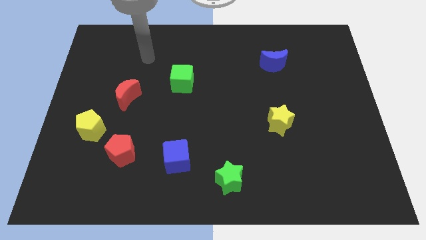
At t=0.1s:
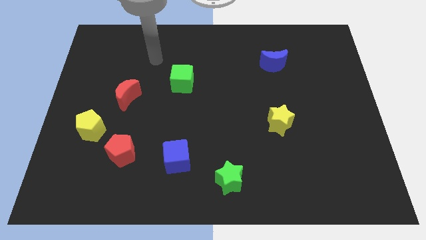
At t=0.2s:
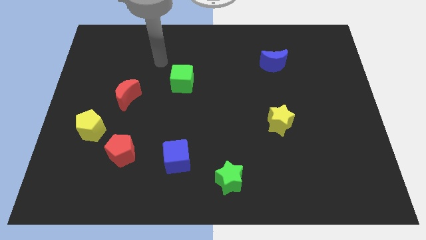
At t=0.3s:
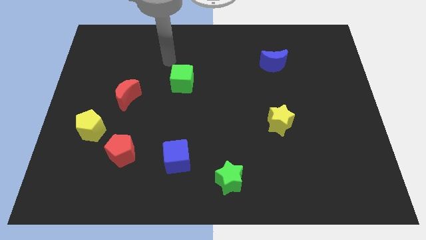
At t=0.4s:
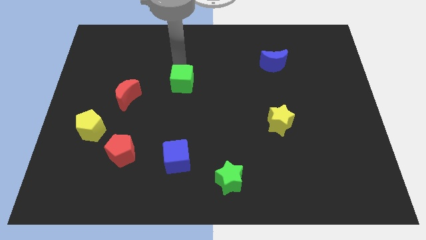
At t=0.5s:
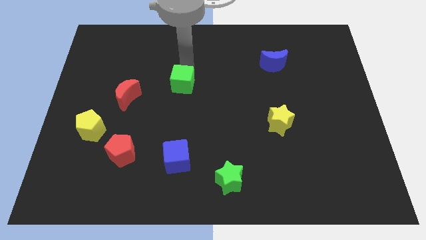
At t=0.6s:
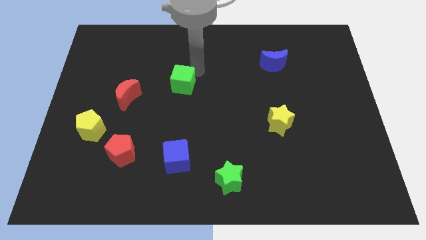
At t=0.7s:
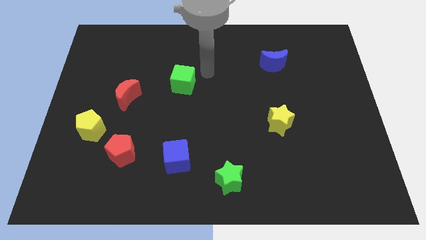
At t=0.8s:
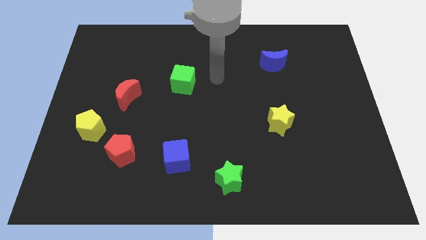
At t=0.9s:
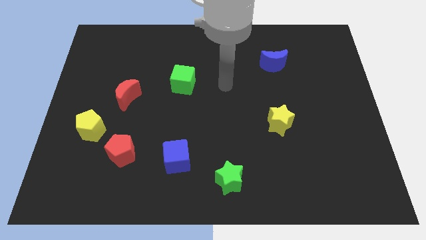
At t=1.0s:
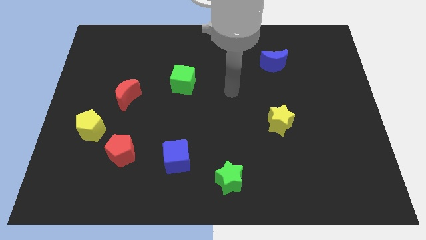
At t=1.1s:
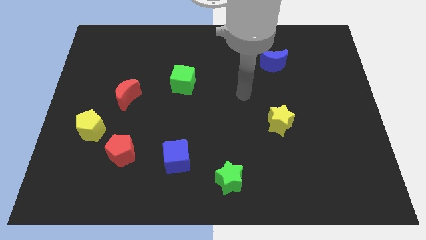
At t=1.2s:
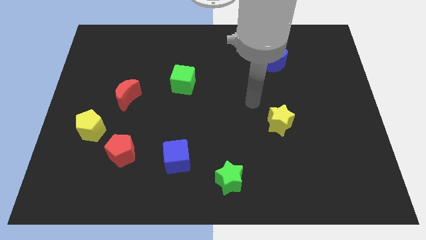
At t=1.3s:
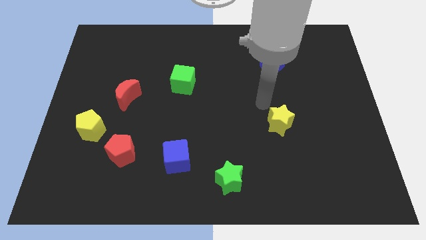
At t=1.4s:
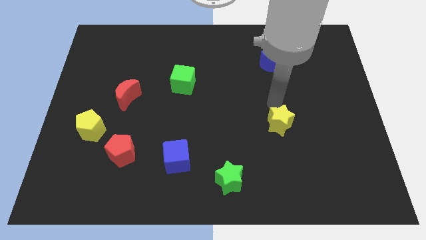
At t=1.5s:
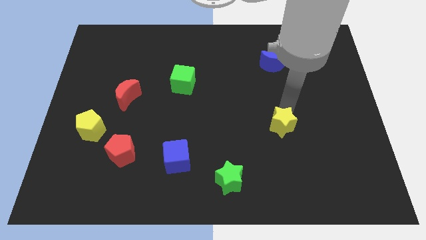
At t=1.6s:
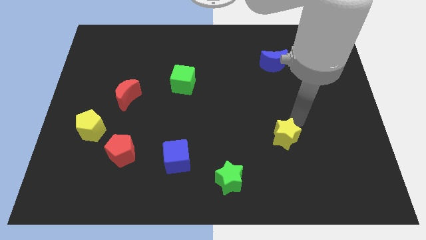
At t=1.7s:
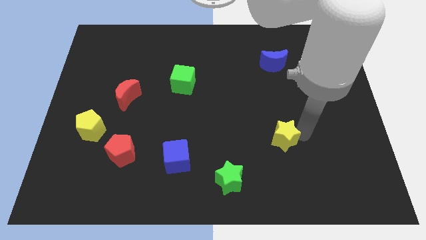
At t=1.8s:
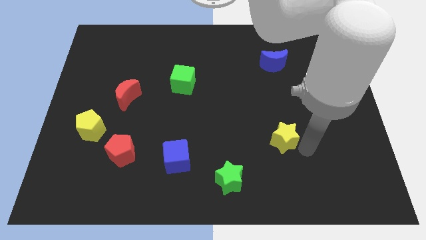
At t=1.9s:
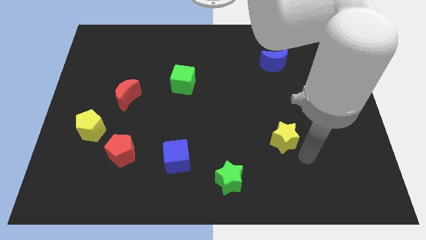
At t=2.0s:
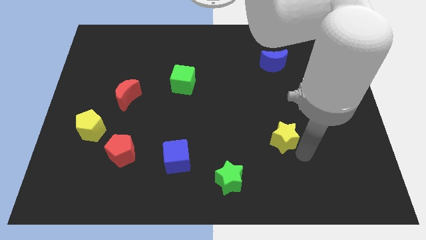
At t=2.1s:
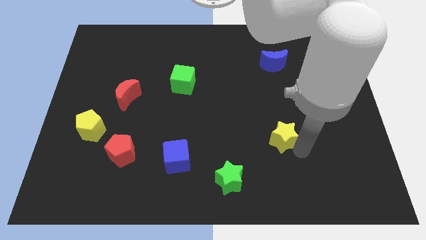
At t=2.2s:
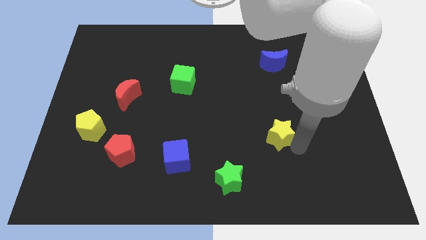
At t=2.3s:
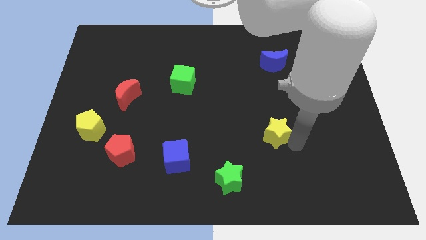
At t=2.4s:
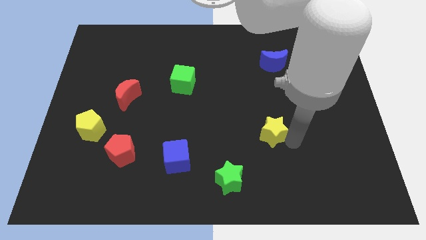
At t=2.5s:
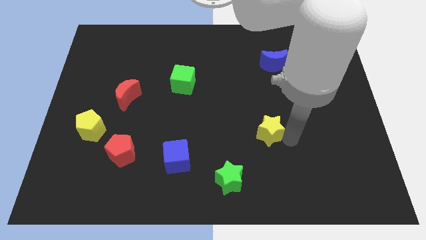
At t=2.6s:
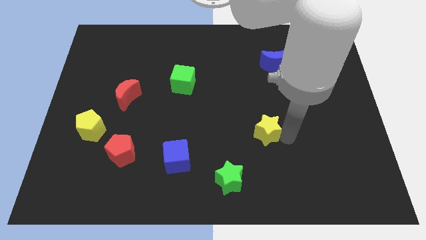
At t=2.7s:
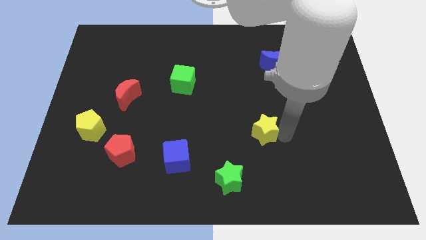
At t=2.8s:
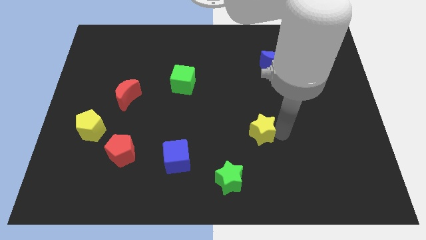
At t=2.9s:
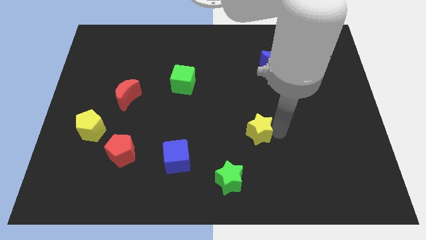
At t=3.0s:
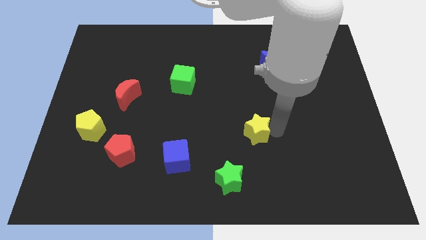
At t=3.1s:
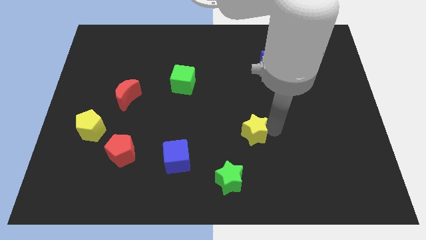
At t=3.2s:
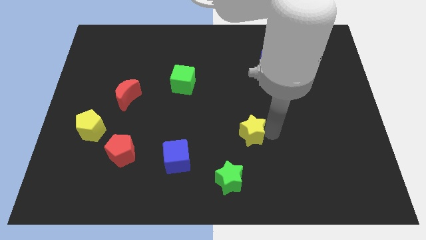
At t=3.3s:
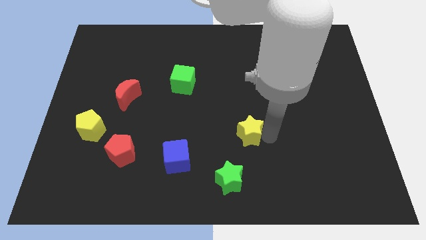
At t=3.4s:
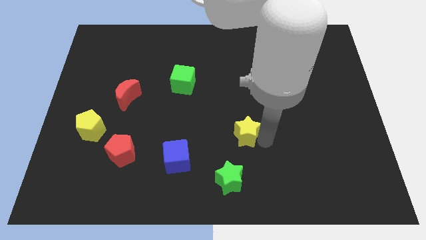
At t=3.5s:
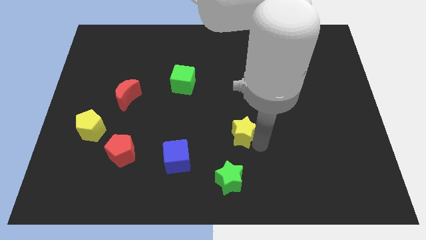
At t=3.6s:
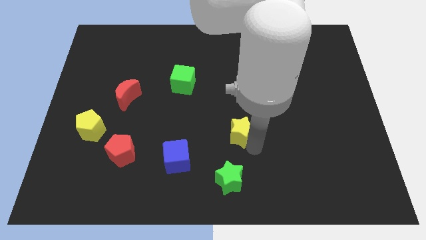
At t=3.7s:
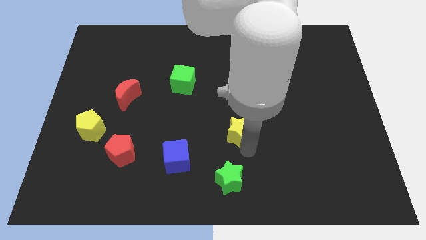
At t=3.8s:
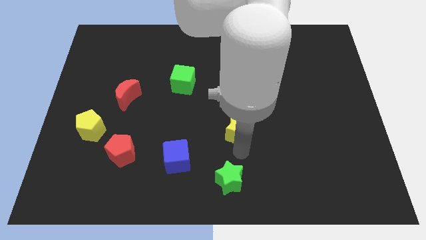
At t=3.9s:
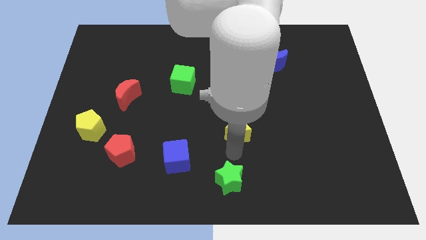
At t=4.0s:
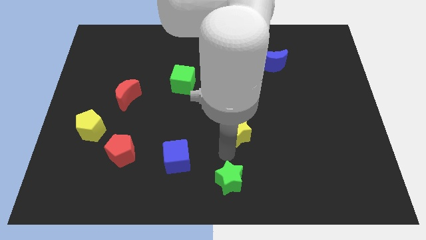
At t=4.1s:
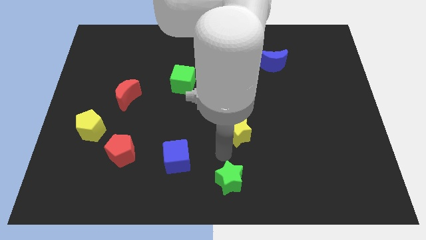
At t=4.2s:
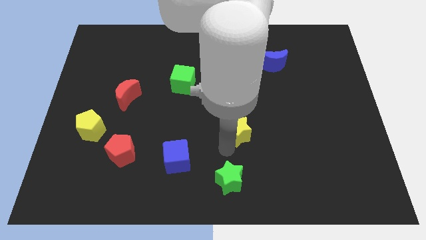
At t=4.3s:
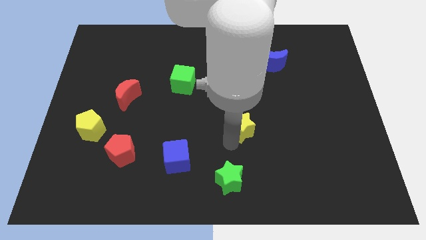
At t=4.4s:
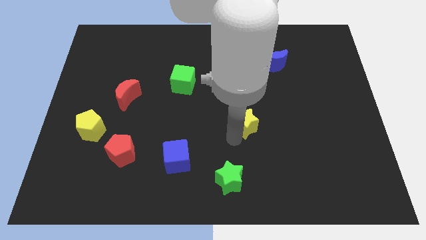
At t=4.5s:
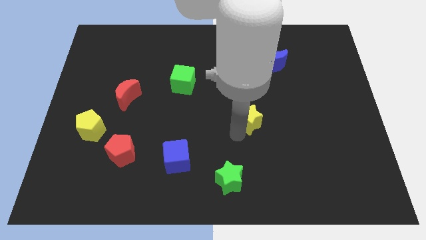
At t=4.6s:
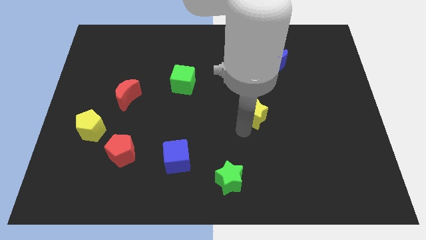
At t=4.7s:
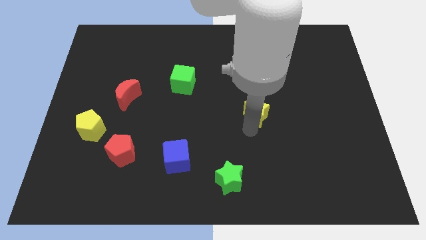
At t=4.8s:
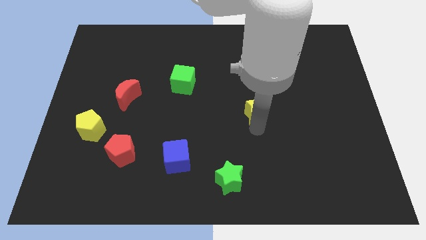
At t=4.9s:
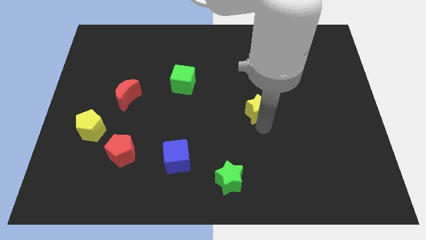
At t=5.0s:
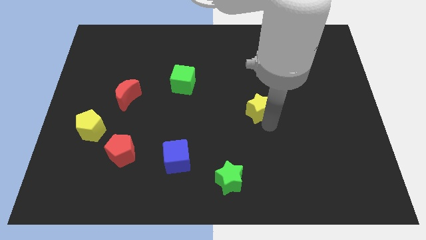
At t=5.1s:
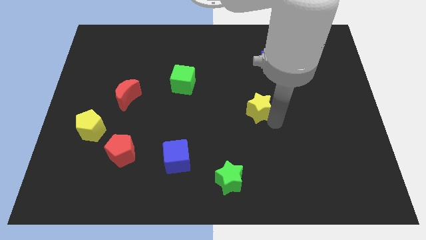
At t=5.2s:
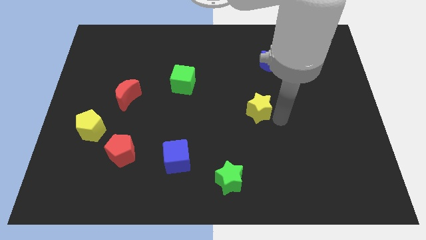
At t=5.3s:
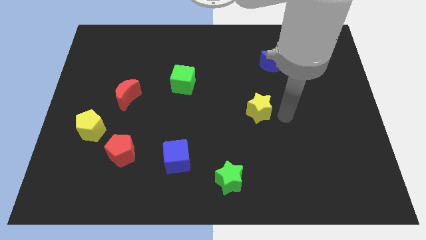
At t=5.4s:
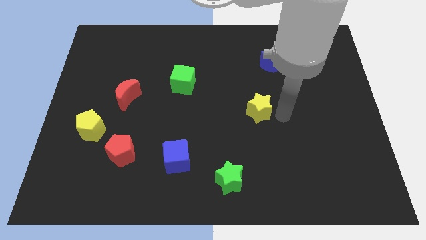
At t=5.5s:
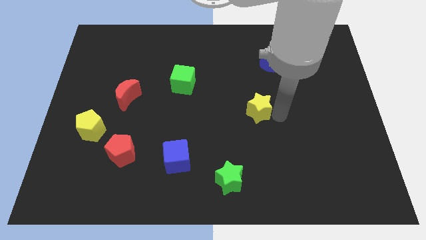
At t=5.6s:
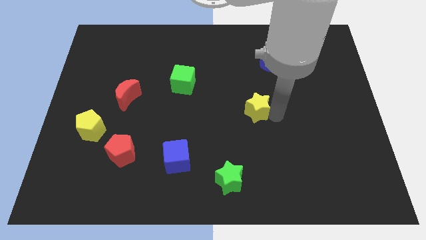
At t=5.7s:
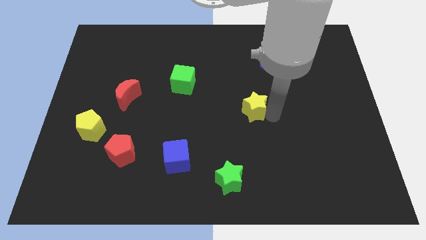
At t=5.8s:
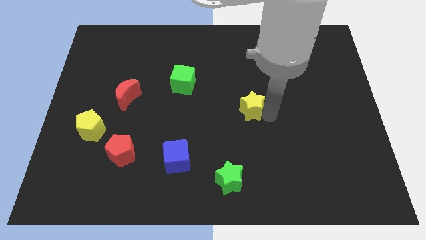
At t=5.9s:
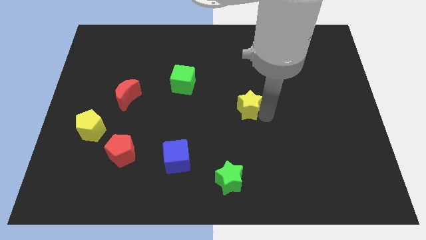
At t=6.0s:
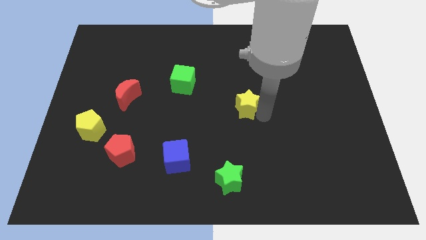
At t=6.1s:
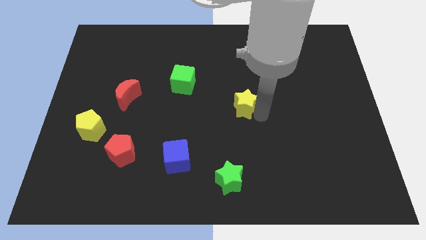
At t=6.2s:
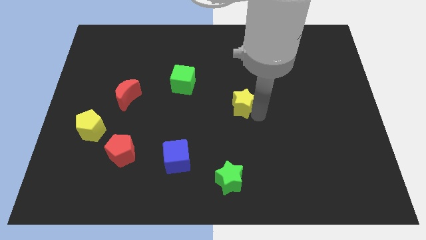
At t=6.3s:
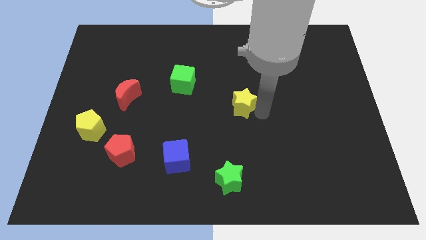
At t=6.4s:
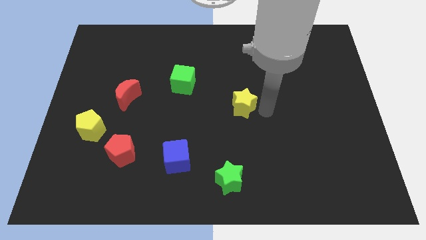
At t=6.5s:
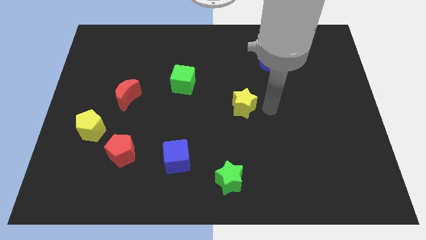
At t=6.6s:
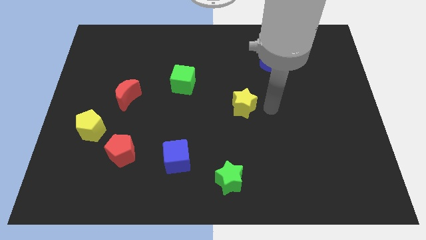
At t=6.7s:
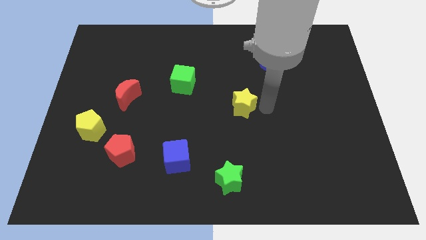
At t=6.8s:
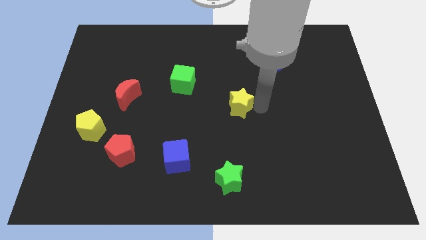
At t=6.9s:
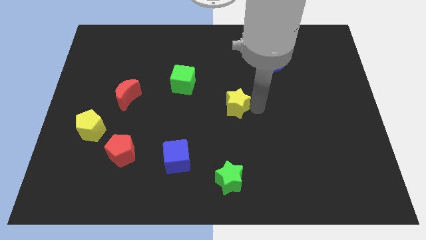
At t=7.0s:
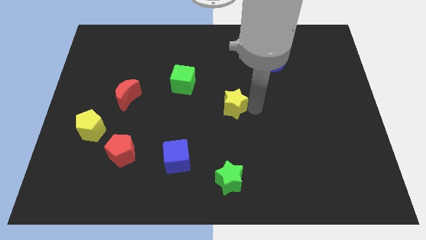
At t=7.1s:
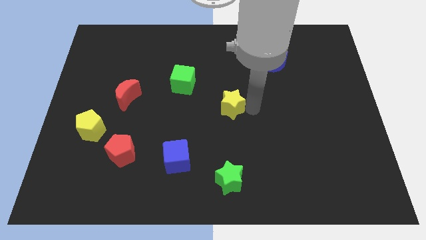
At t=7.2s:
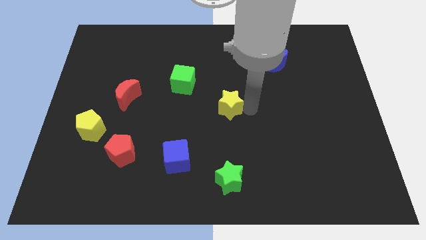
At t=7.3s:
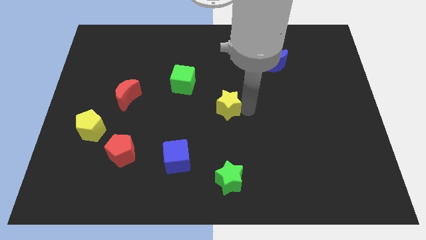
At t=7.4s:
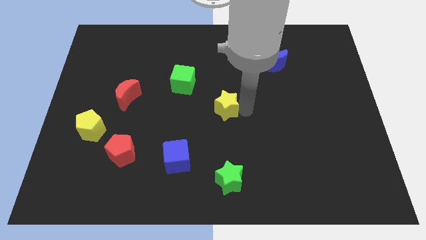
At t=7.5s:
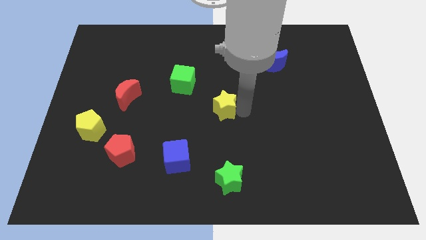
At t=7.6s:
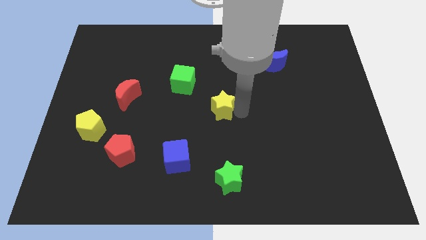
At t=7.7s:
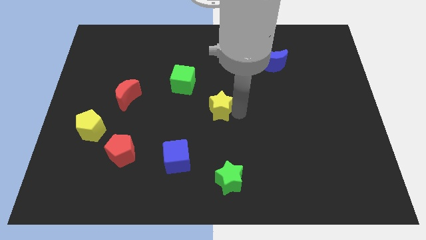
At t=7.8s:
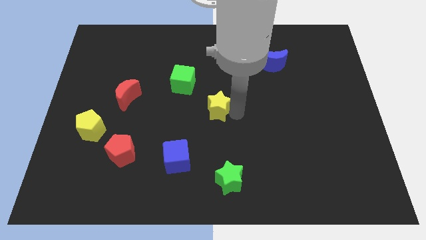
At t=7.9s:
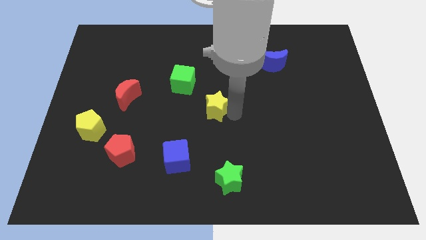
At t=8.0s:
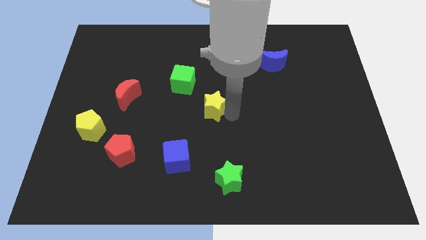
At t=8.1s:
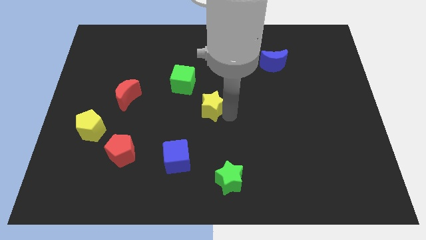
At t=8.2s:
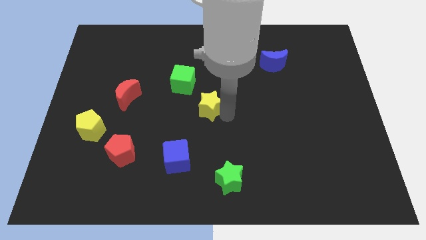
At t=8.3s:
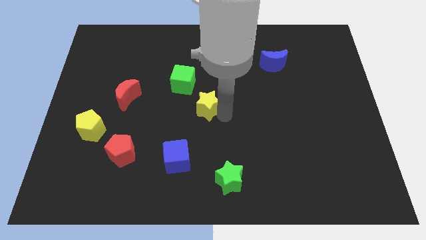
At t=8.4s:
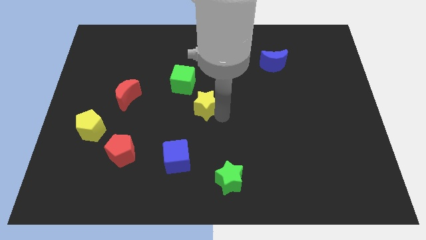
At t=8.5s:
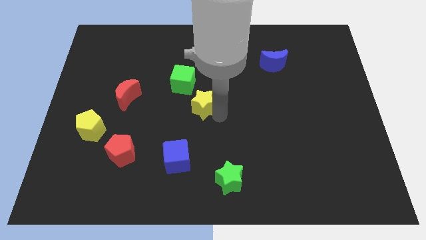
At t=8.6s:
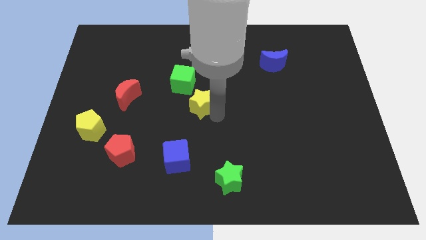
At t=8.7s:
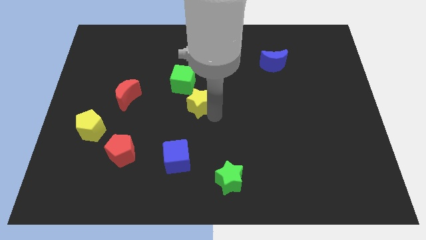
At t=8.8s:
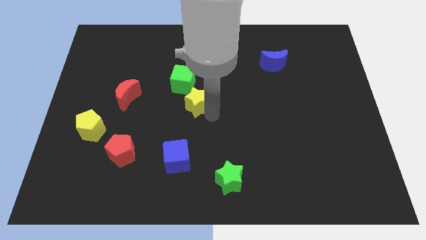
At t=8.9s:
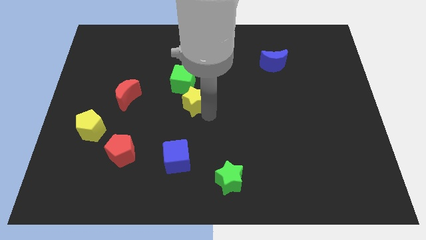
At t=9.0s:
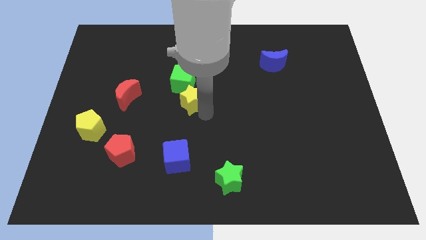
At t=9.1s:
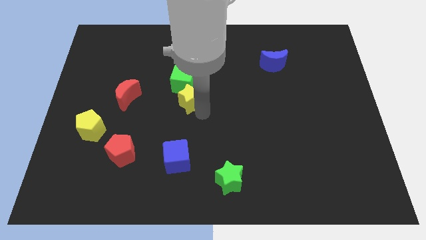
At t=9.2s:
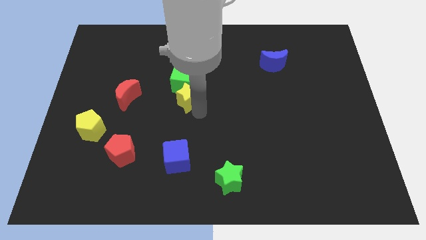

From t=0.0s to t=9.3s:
move the yellow star to the green cube
